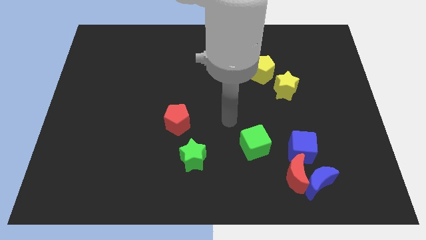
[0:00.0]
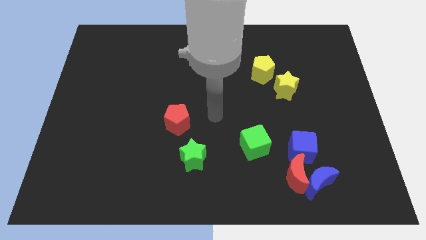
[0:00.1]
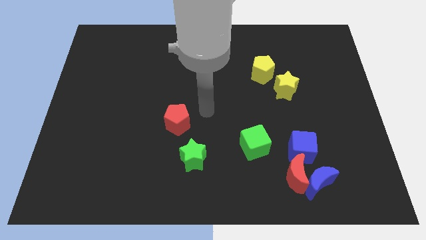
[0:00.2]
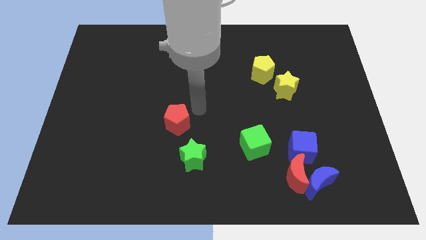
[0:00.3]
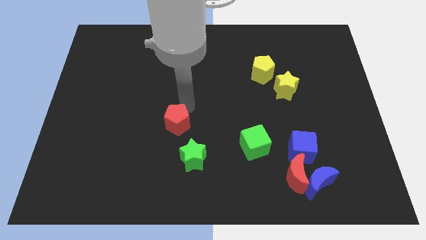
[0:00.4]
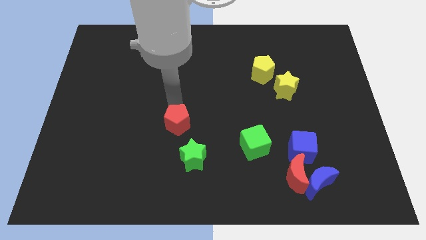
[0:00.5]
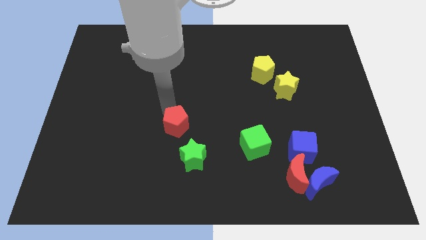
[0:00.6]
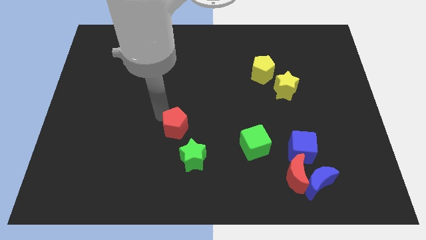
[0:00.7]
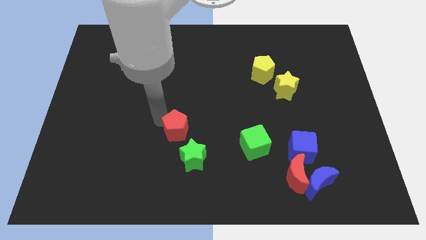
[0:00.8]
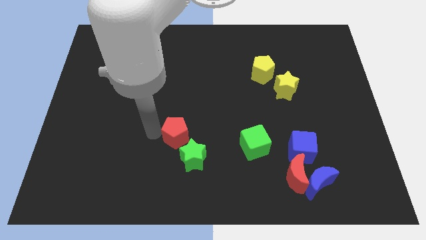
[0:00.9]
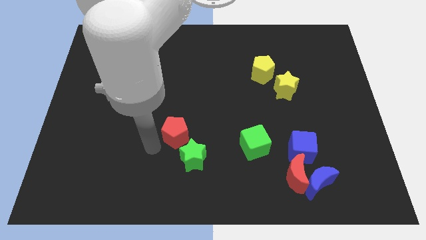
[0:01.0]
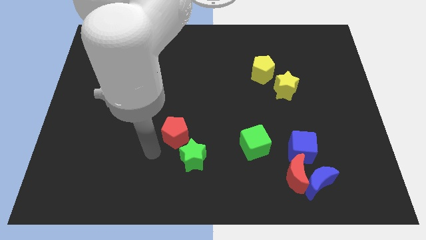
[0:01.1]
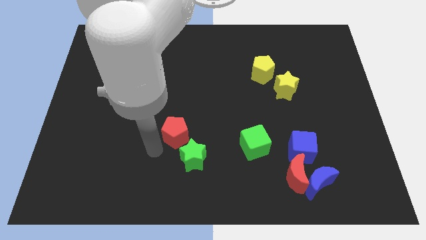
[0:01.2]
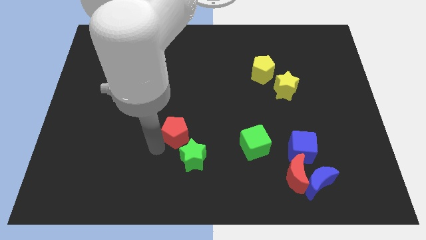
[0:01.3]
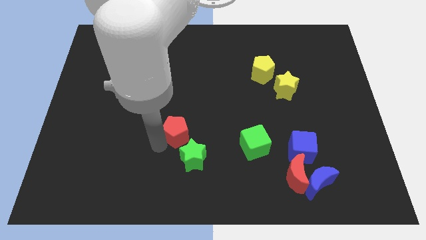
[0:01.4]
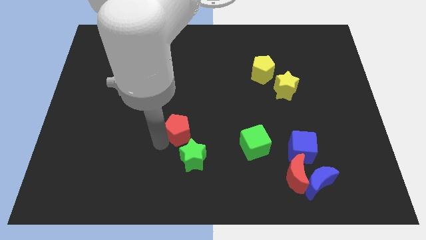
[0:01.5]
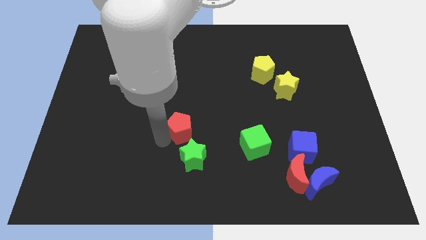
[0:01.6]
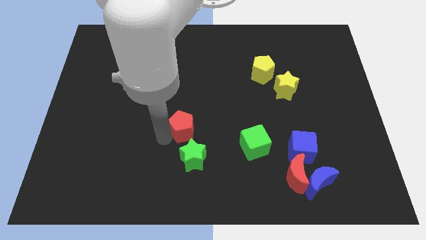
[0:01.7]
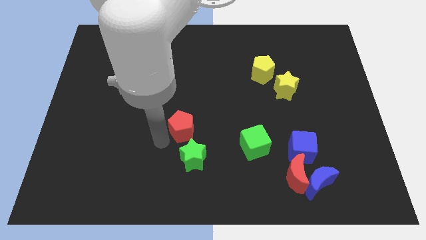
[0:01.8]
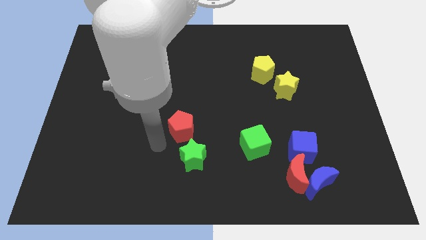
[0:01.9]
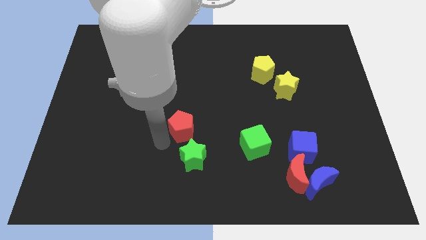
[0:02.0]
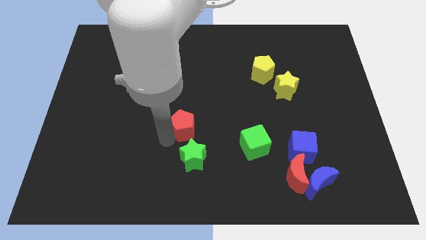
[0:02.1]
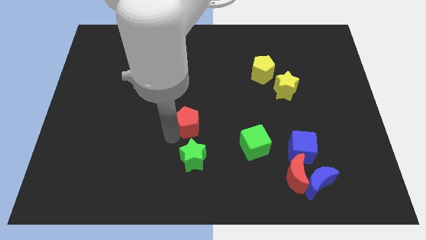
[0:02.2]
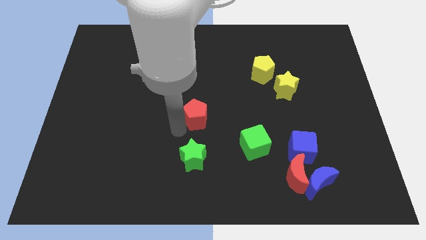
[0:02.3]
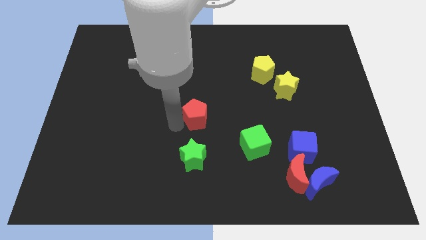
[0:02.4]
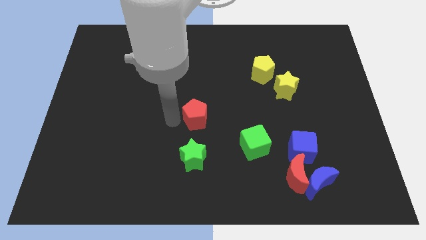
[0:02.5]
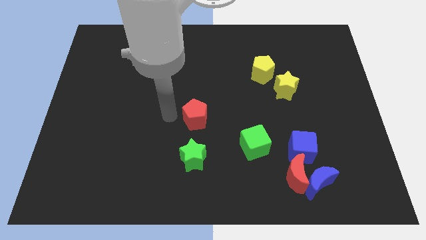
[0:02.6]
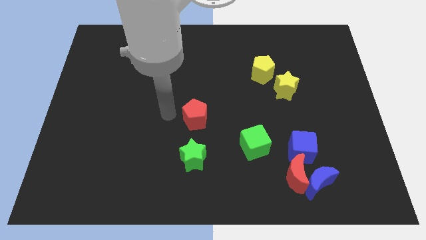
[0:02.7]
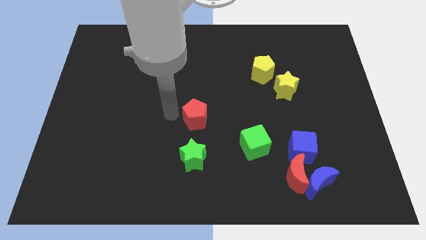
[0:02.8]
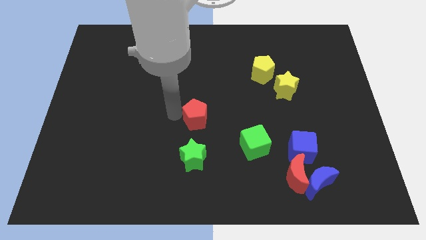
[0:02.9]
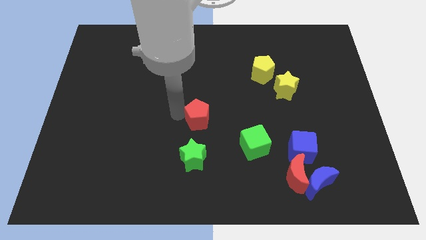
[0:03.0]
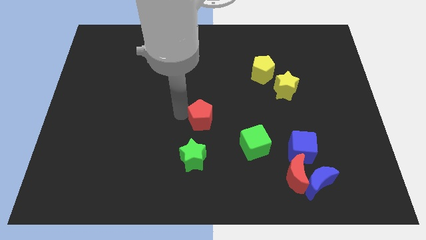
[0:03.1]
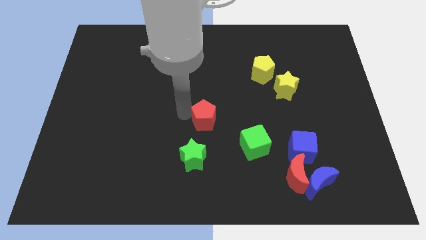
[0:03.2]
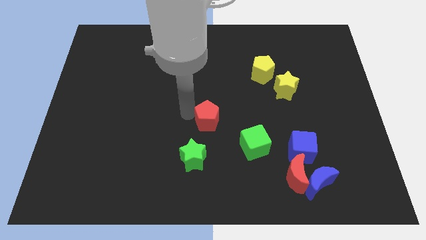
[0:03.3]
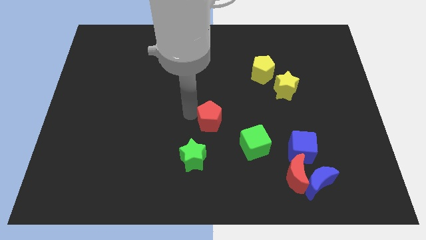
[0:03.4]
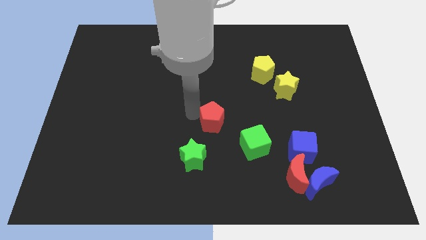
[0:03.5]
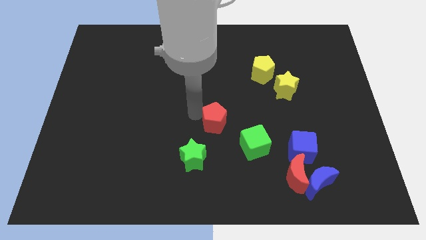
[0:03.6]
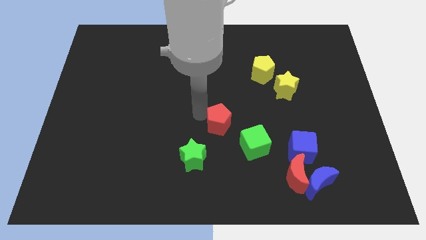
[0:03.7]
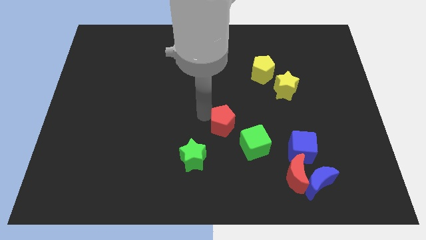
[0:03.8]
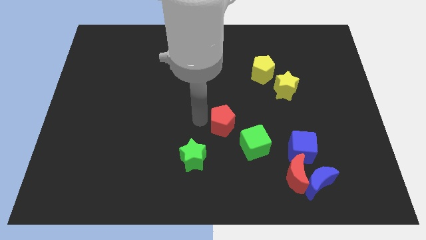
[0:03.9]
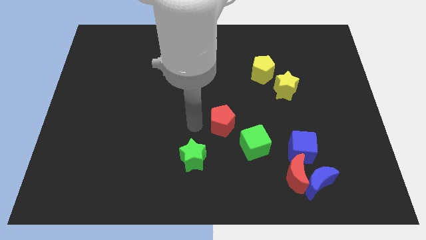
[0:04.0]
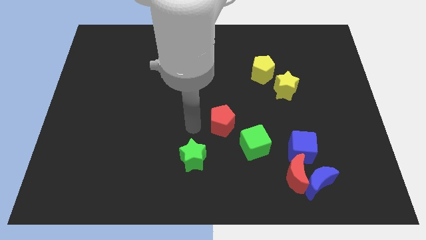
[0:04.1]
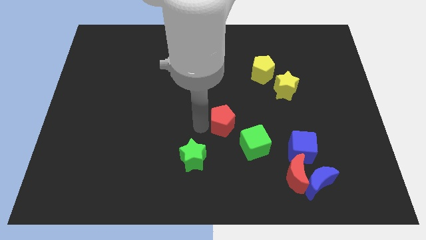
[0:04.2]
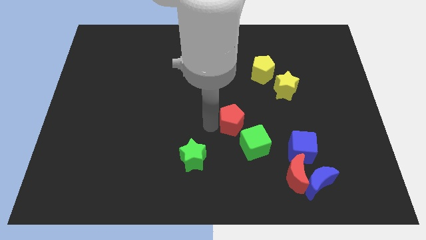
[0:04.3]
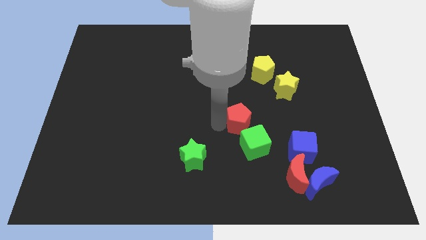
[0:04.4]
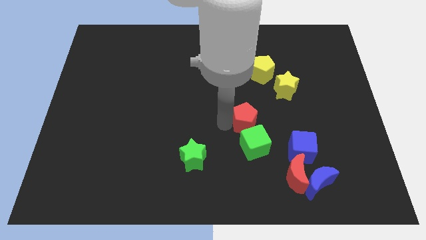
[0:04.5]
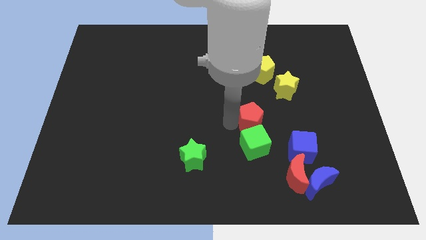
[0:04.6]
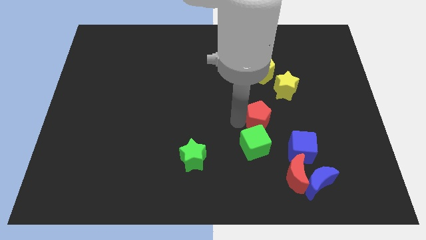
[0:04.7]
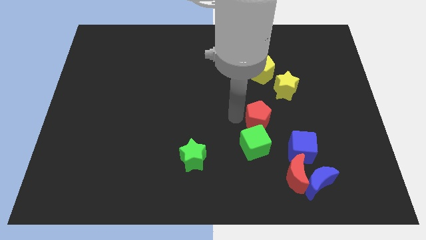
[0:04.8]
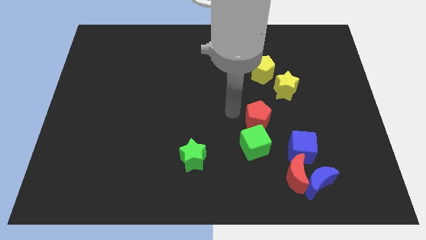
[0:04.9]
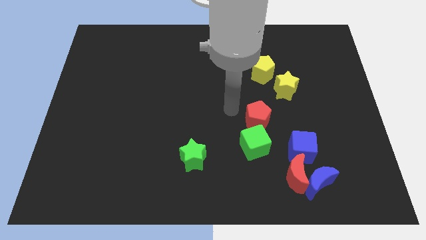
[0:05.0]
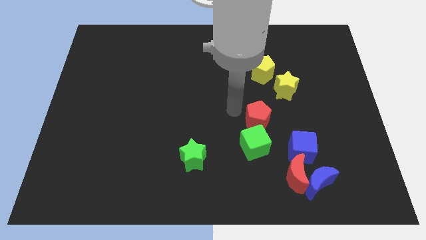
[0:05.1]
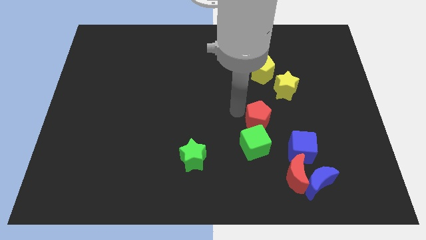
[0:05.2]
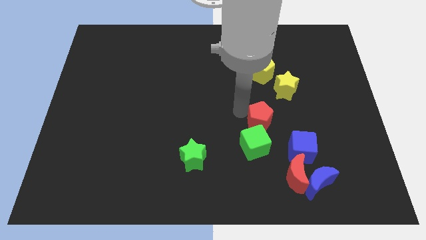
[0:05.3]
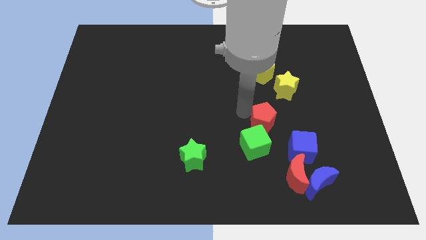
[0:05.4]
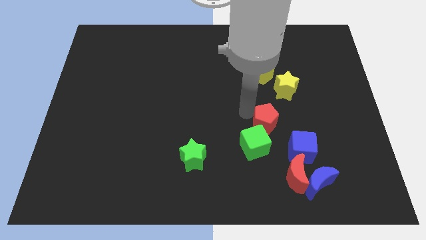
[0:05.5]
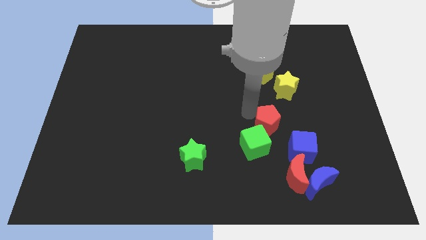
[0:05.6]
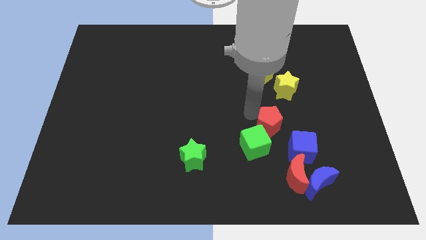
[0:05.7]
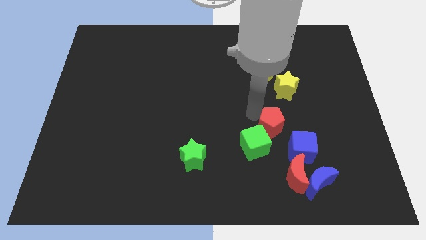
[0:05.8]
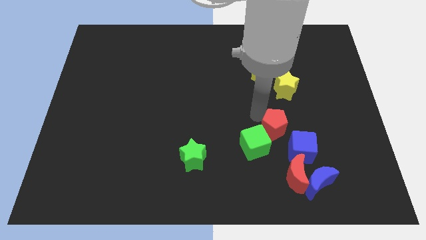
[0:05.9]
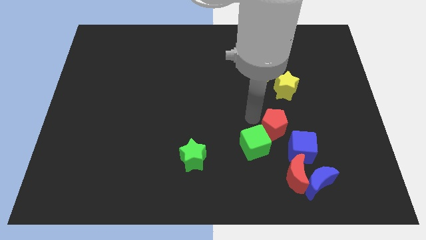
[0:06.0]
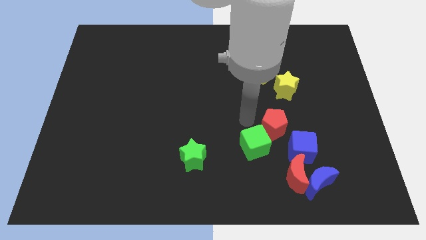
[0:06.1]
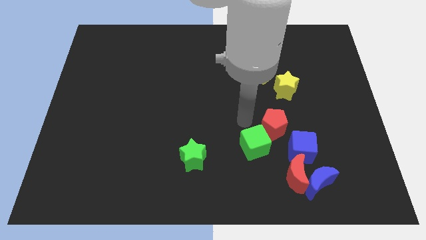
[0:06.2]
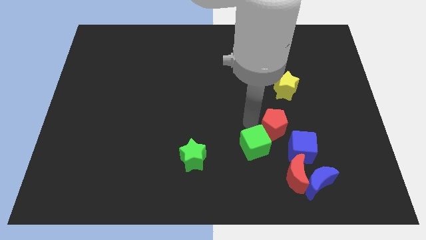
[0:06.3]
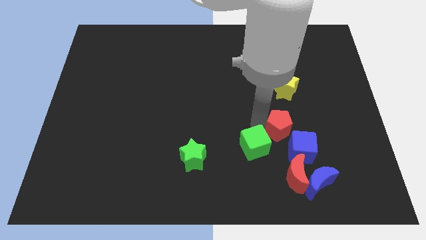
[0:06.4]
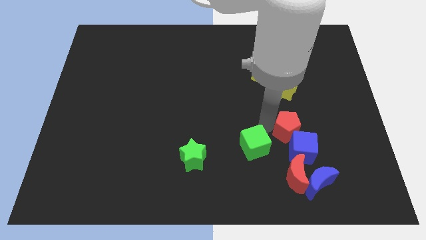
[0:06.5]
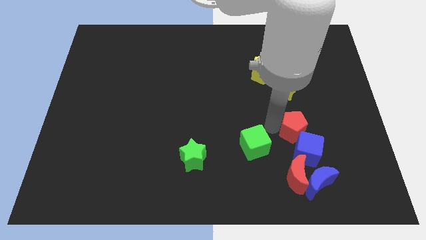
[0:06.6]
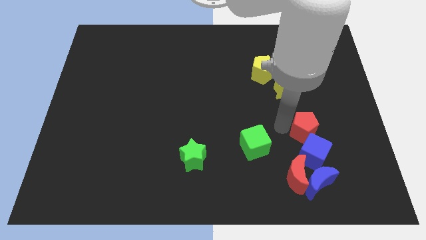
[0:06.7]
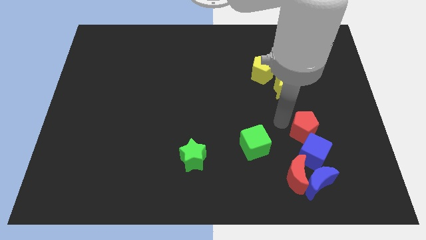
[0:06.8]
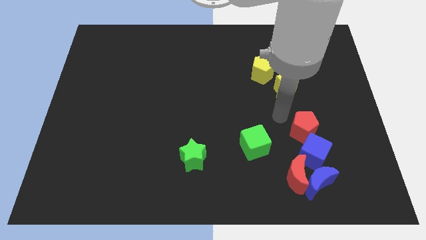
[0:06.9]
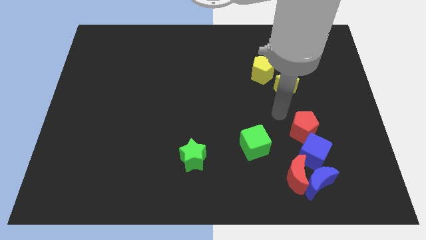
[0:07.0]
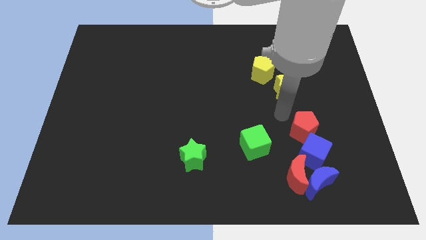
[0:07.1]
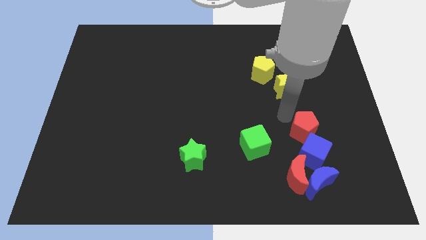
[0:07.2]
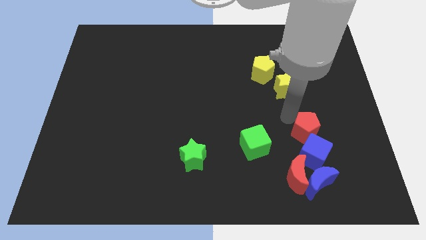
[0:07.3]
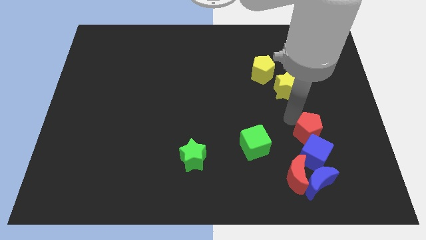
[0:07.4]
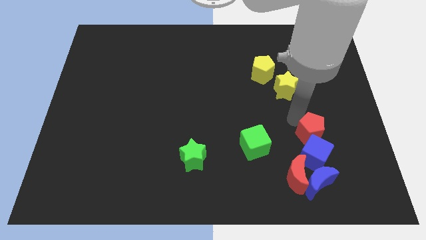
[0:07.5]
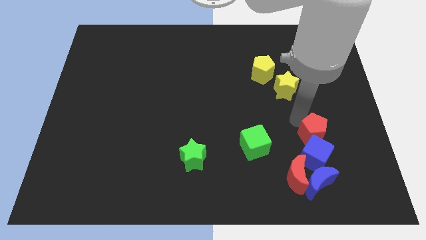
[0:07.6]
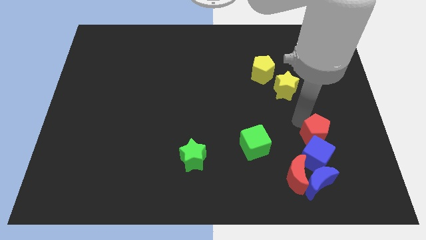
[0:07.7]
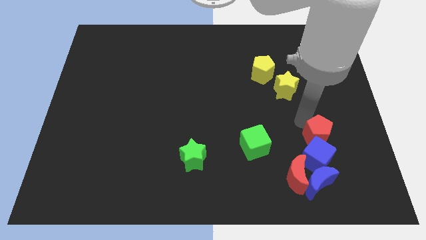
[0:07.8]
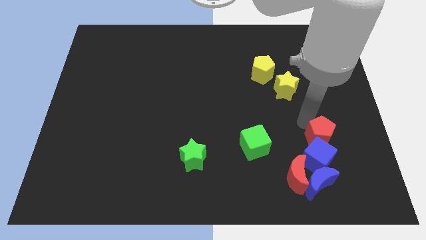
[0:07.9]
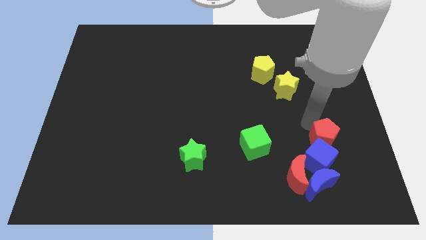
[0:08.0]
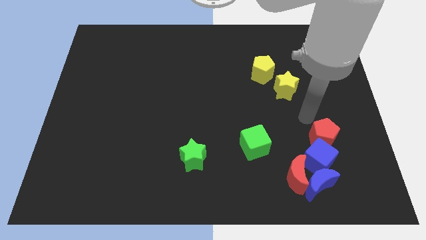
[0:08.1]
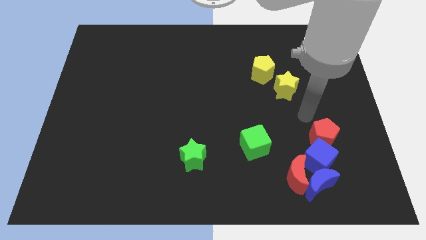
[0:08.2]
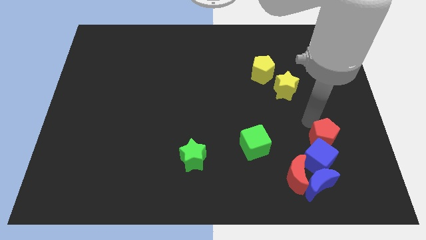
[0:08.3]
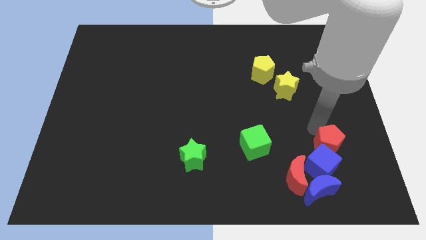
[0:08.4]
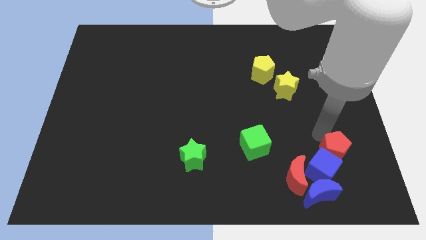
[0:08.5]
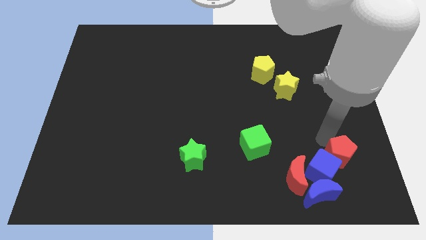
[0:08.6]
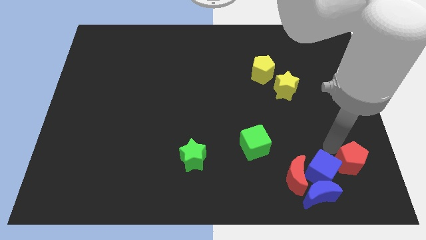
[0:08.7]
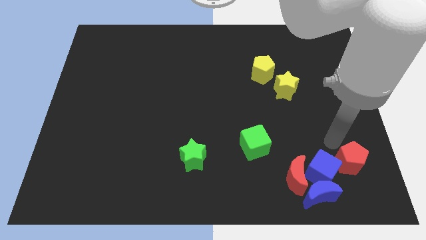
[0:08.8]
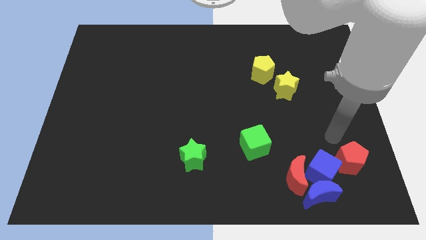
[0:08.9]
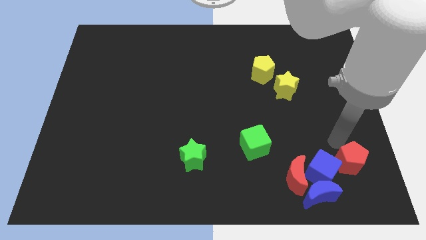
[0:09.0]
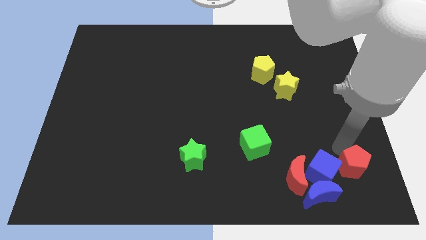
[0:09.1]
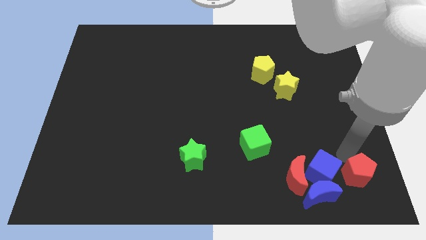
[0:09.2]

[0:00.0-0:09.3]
put the red pentagon to the bottom right corner
